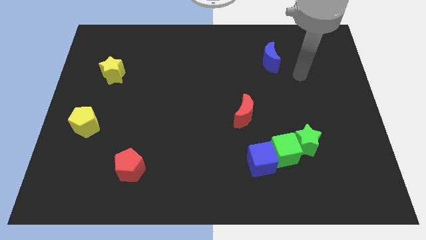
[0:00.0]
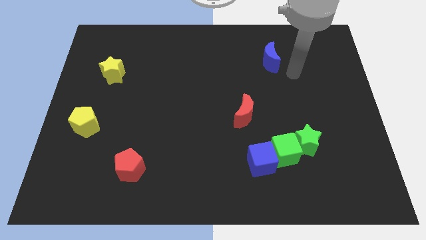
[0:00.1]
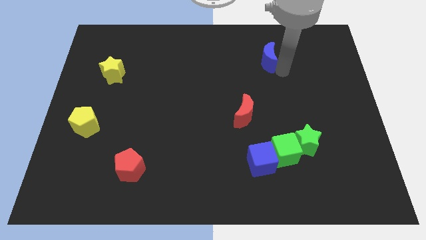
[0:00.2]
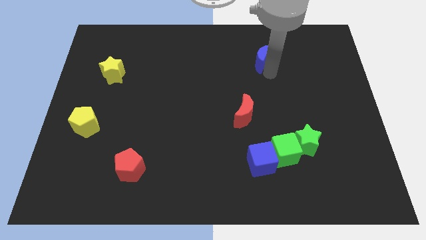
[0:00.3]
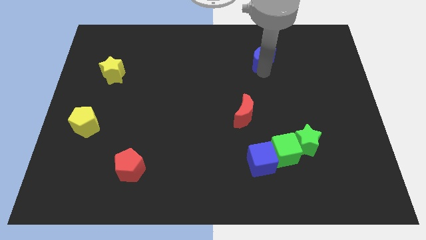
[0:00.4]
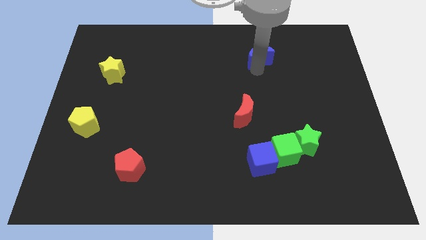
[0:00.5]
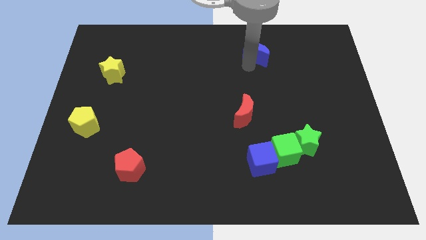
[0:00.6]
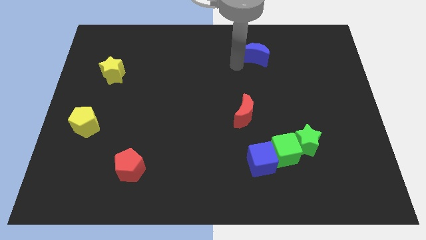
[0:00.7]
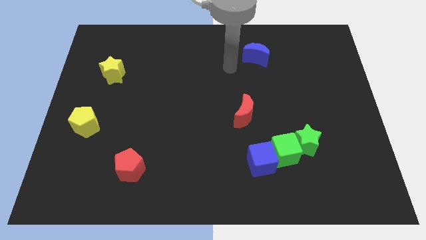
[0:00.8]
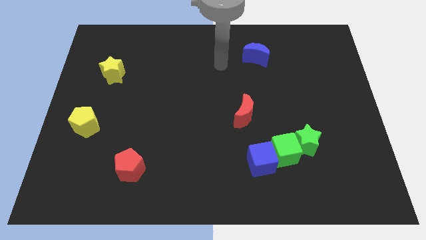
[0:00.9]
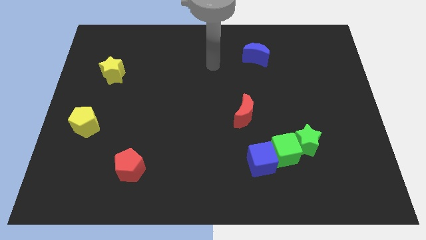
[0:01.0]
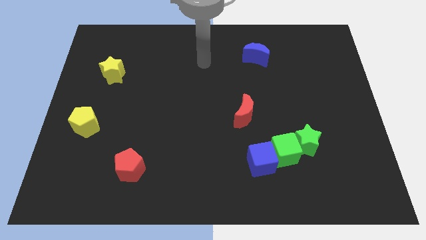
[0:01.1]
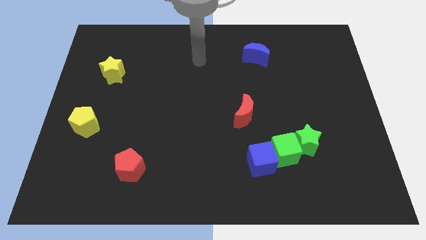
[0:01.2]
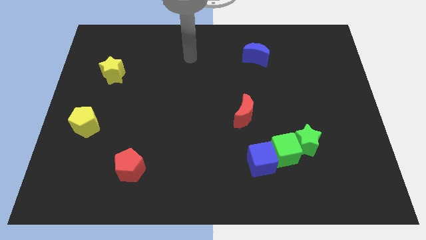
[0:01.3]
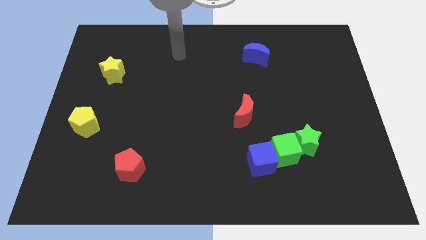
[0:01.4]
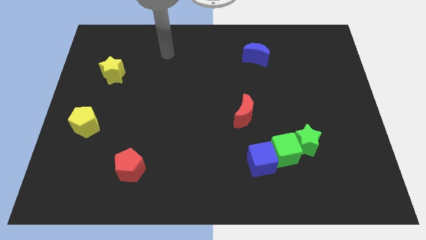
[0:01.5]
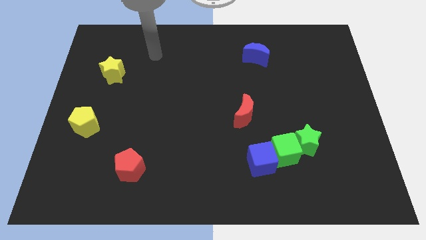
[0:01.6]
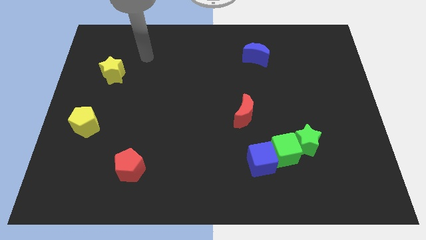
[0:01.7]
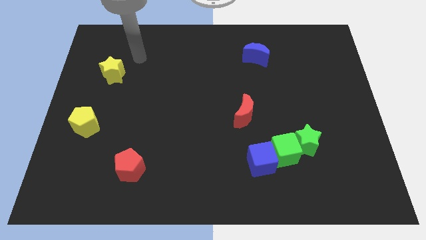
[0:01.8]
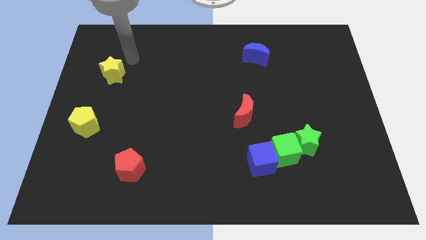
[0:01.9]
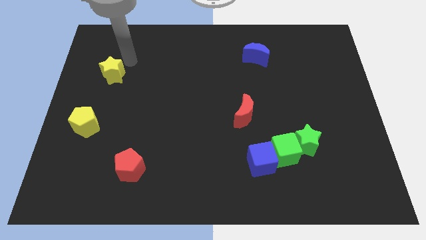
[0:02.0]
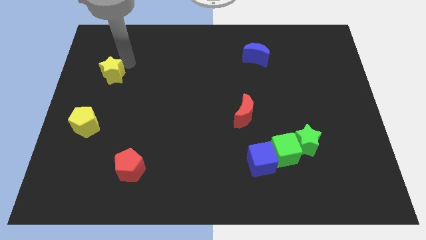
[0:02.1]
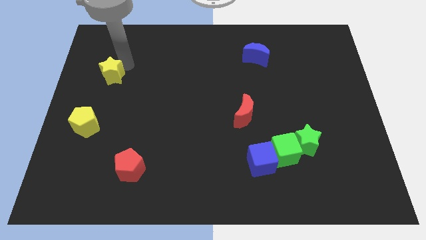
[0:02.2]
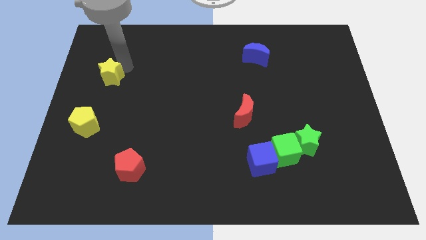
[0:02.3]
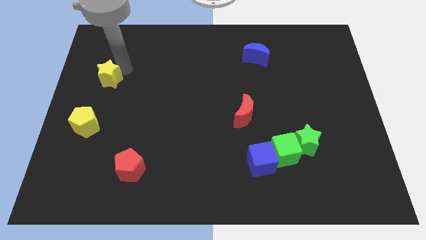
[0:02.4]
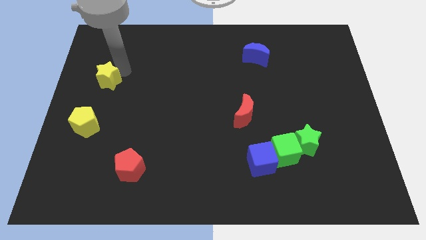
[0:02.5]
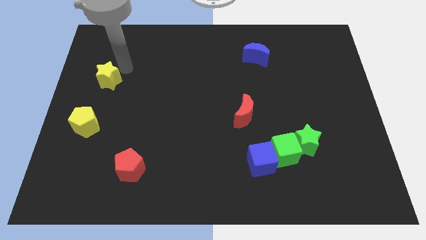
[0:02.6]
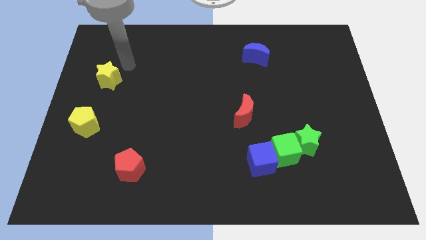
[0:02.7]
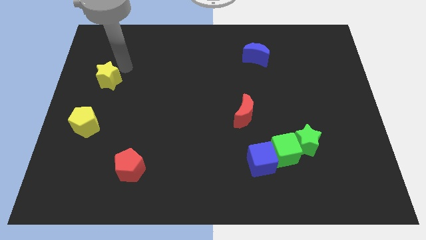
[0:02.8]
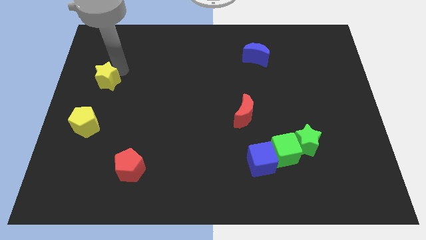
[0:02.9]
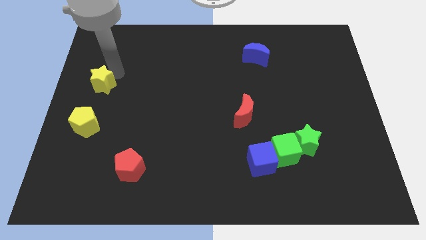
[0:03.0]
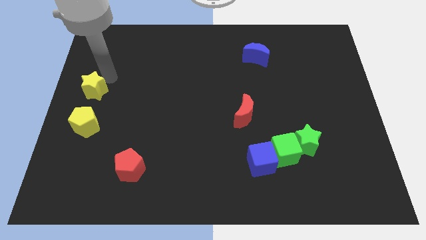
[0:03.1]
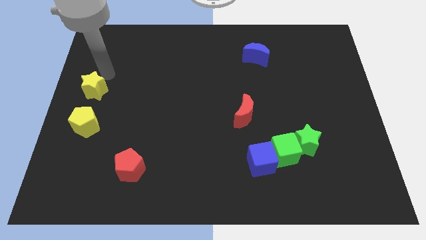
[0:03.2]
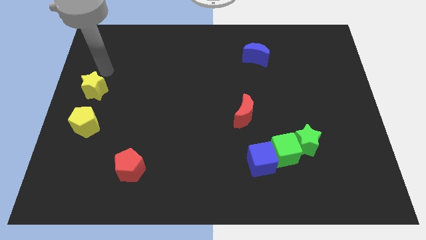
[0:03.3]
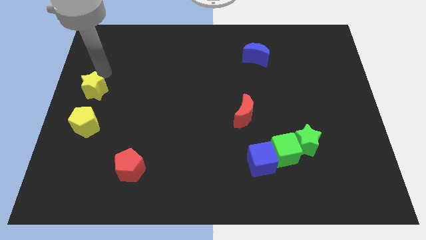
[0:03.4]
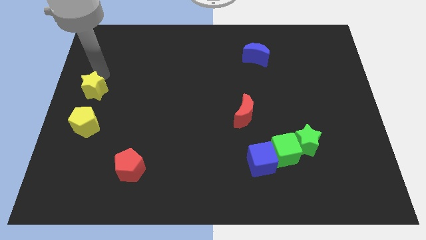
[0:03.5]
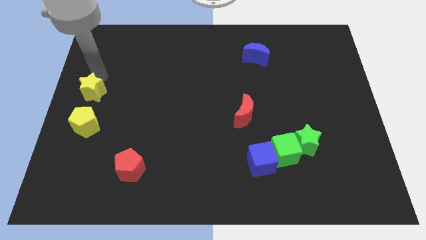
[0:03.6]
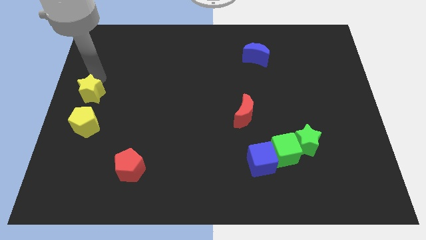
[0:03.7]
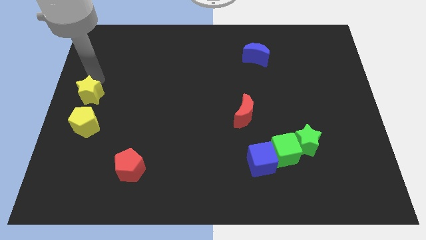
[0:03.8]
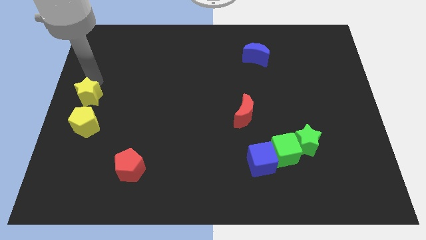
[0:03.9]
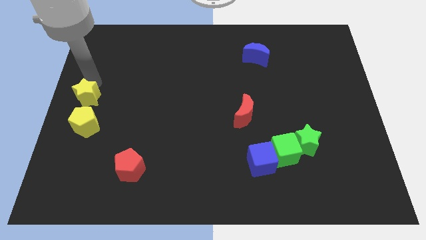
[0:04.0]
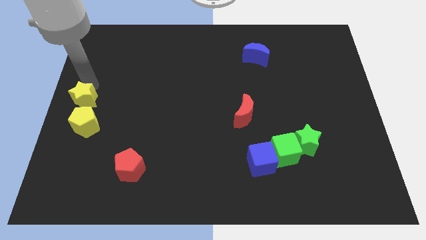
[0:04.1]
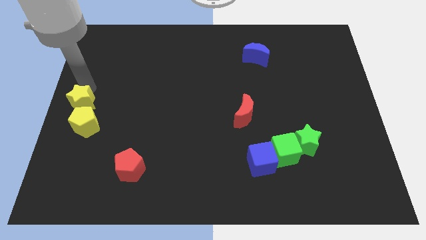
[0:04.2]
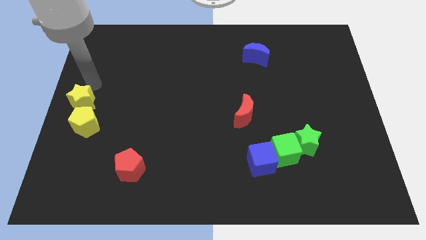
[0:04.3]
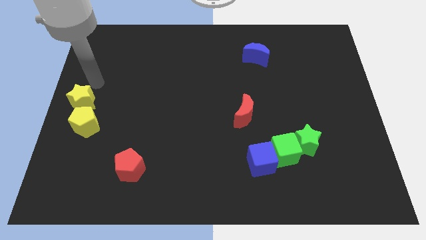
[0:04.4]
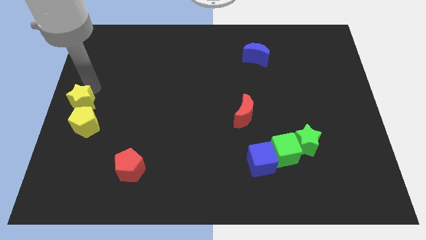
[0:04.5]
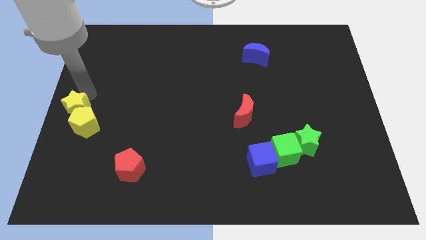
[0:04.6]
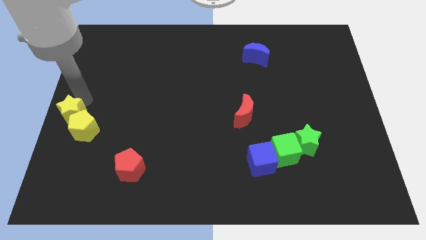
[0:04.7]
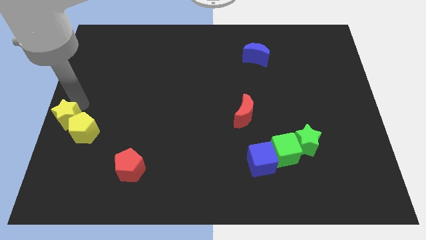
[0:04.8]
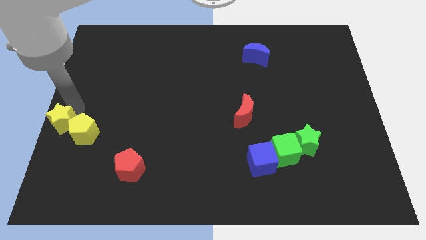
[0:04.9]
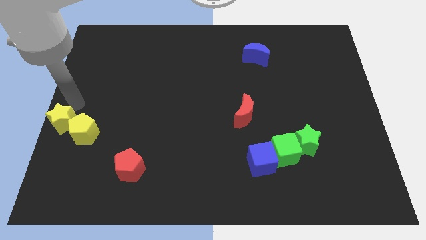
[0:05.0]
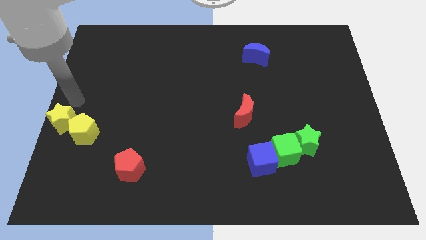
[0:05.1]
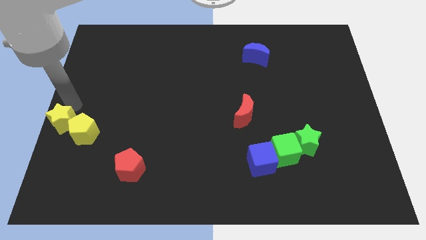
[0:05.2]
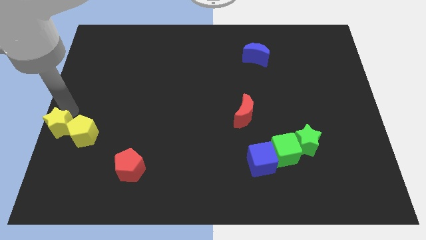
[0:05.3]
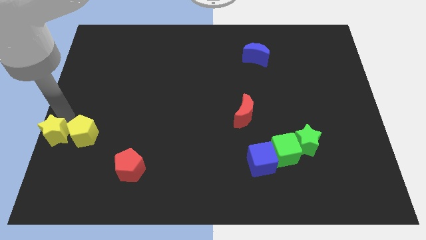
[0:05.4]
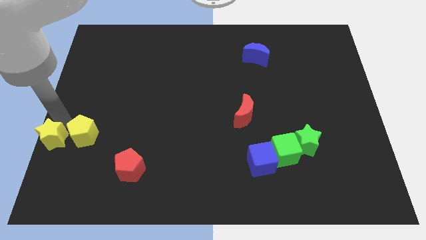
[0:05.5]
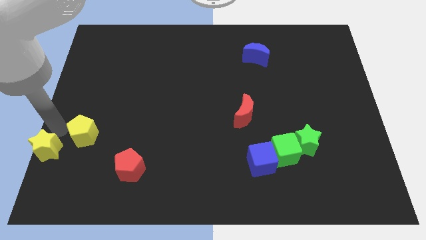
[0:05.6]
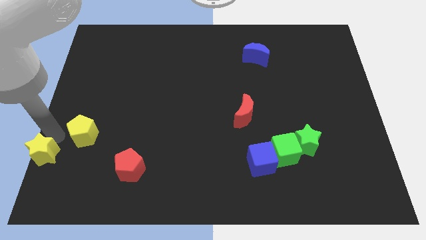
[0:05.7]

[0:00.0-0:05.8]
move the yellow star to the bottom left of the board

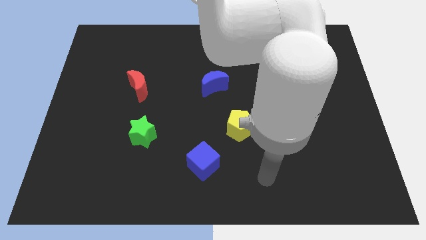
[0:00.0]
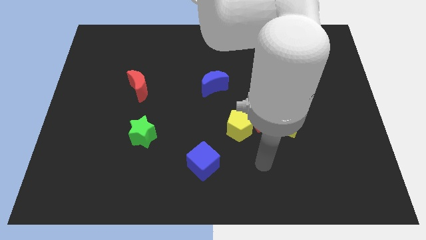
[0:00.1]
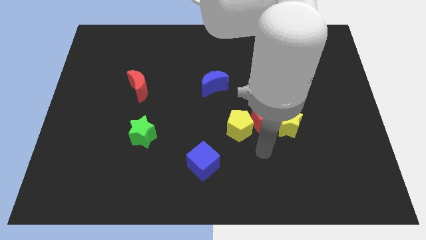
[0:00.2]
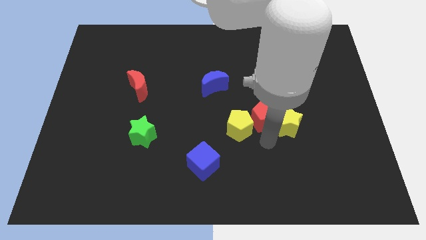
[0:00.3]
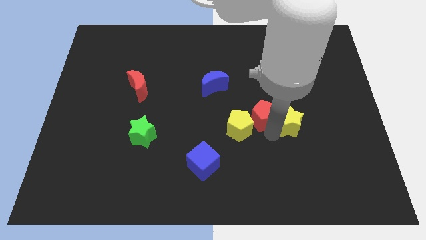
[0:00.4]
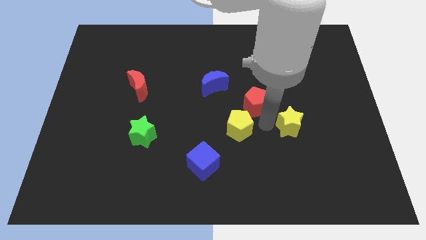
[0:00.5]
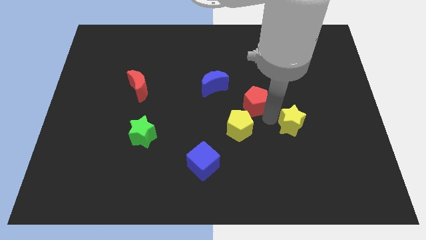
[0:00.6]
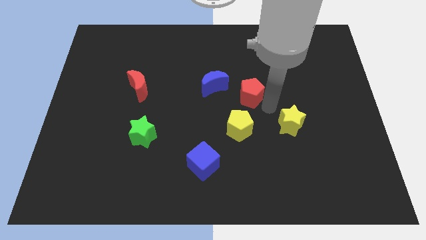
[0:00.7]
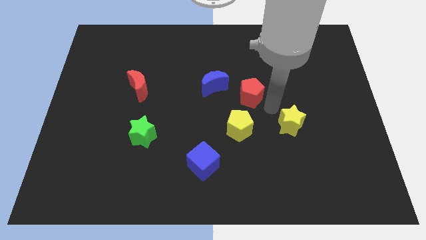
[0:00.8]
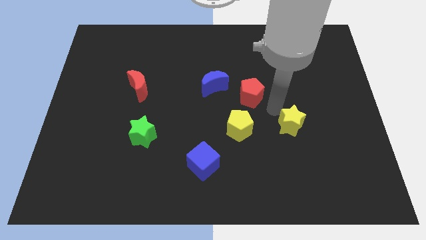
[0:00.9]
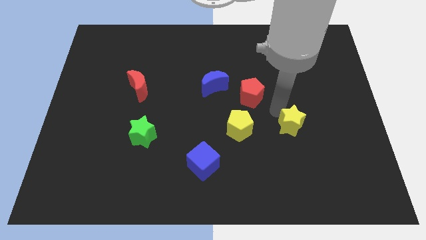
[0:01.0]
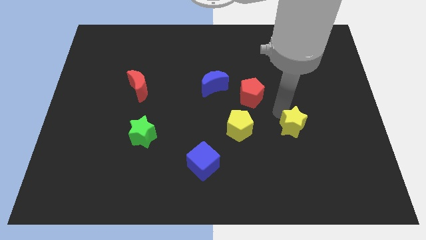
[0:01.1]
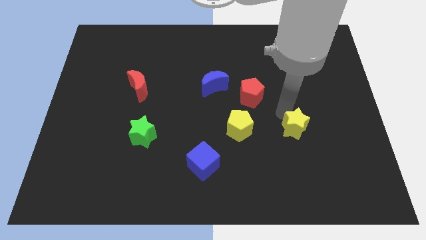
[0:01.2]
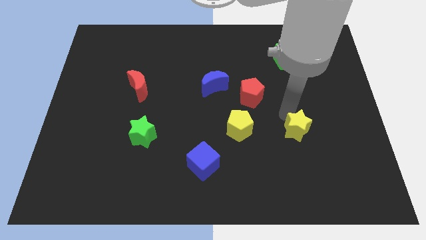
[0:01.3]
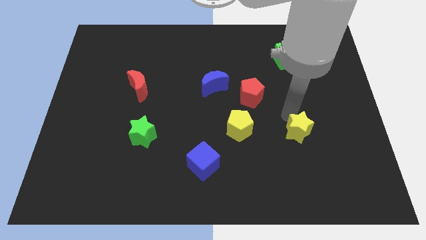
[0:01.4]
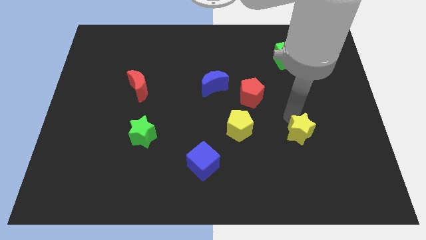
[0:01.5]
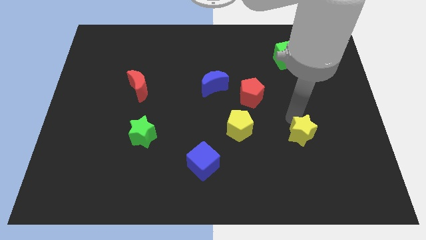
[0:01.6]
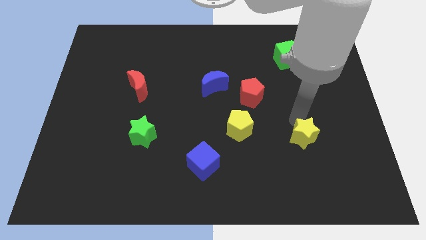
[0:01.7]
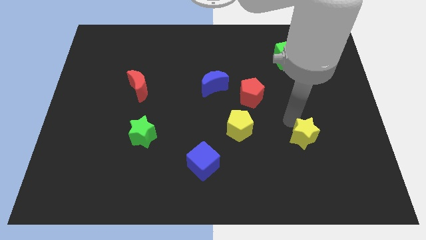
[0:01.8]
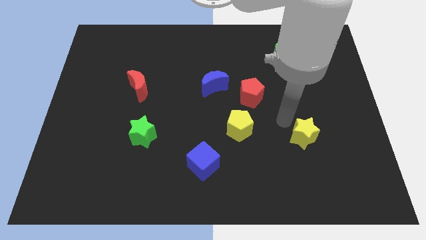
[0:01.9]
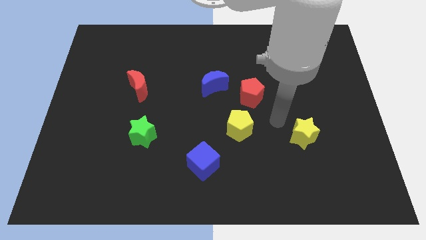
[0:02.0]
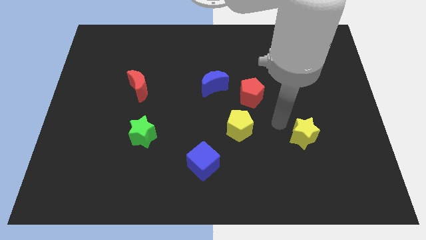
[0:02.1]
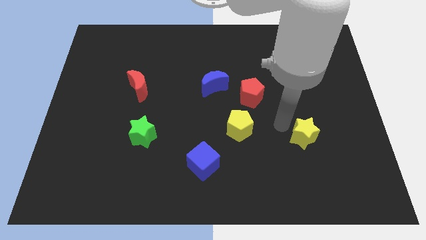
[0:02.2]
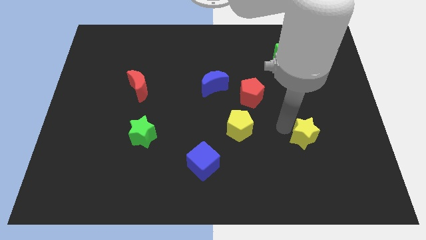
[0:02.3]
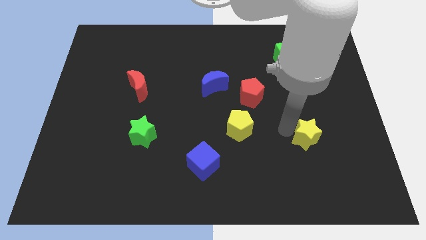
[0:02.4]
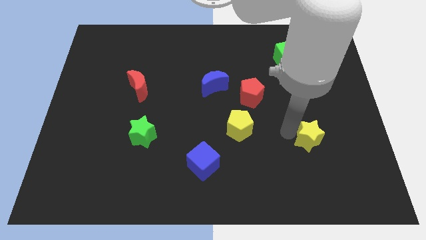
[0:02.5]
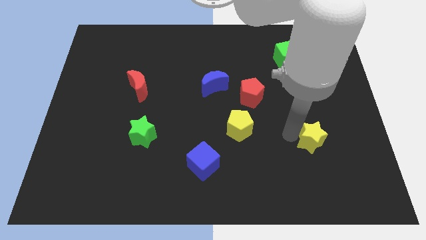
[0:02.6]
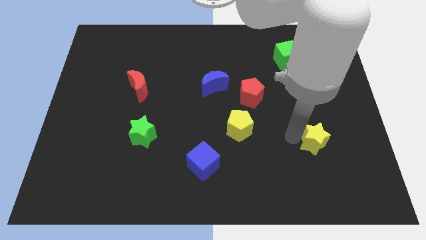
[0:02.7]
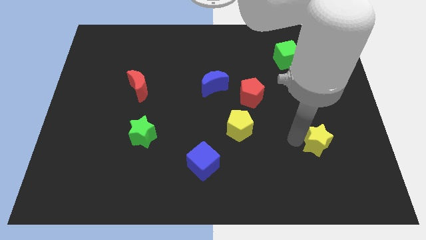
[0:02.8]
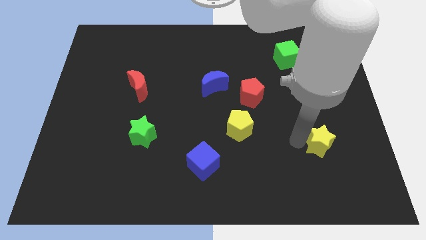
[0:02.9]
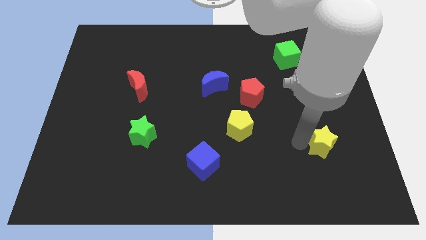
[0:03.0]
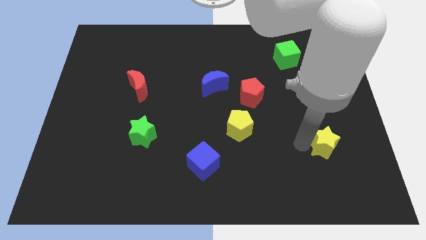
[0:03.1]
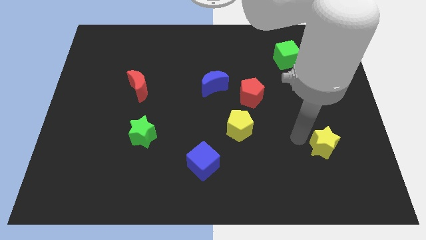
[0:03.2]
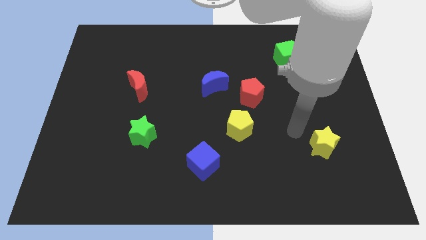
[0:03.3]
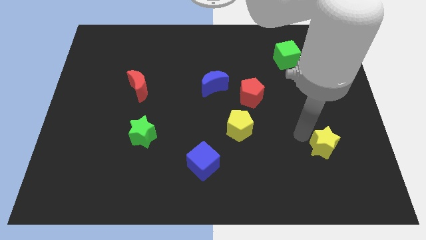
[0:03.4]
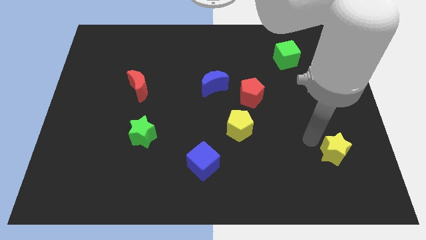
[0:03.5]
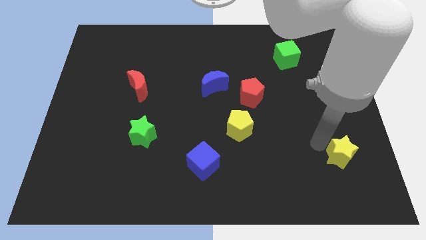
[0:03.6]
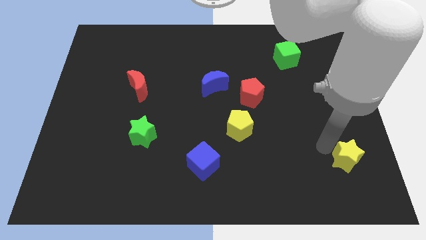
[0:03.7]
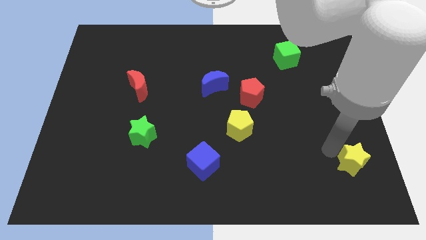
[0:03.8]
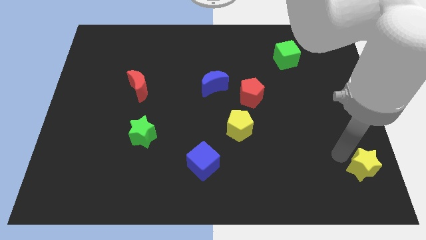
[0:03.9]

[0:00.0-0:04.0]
push the yellow star to the bottom right of the board
